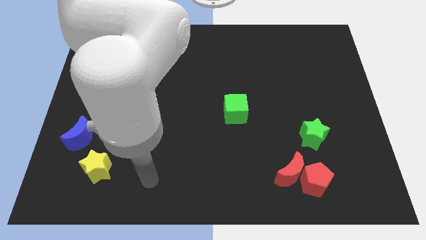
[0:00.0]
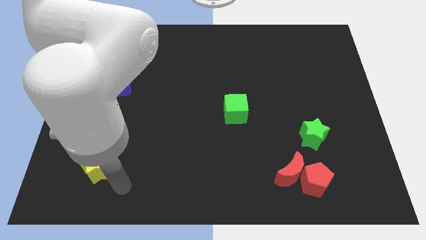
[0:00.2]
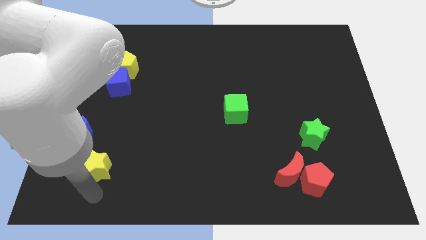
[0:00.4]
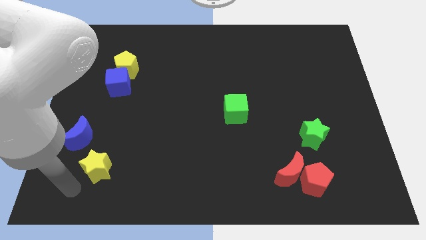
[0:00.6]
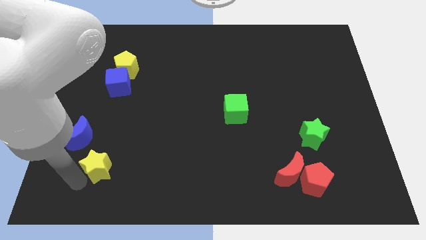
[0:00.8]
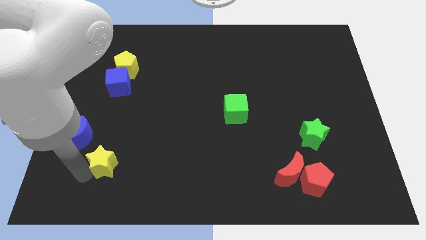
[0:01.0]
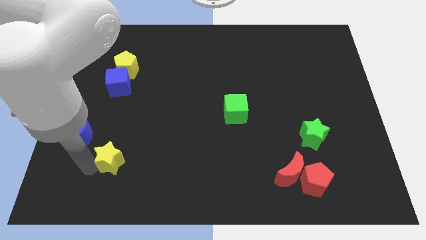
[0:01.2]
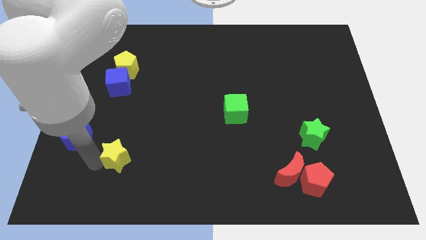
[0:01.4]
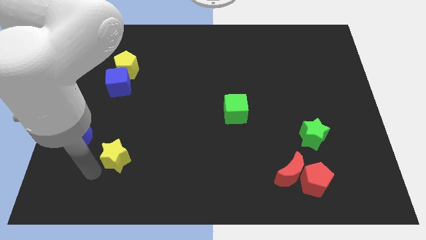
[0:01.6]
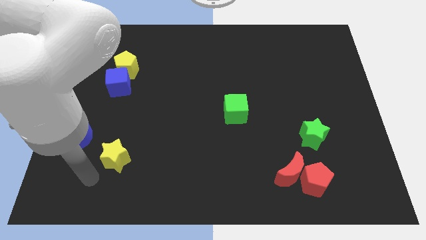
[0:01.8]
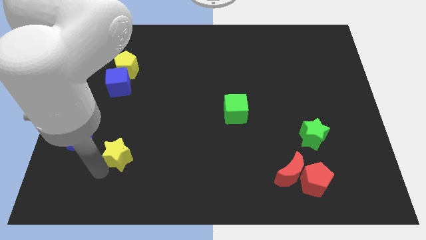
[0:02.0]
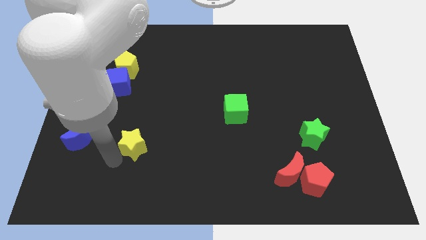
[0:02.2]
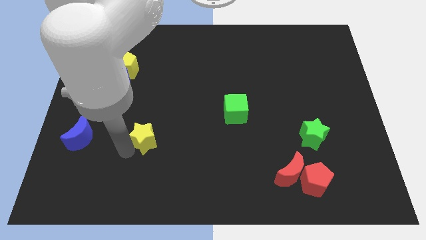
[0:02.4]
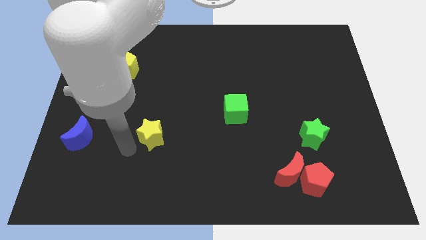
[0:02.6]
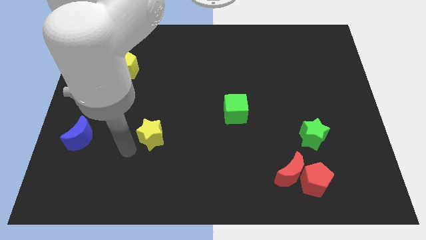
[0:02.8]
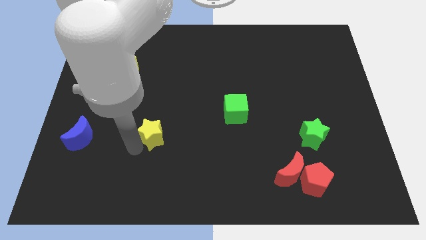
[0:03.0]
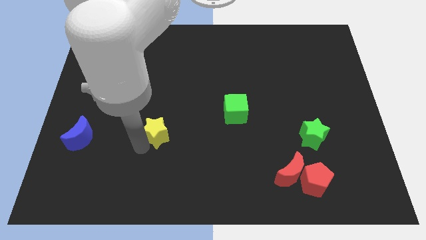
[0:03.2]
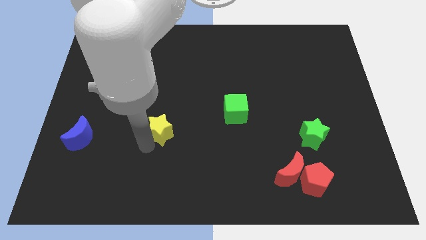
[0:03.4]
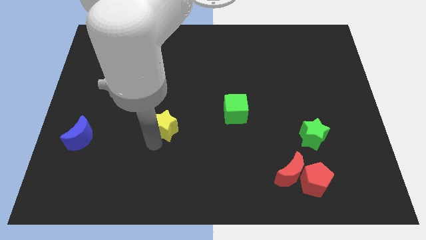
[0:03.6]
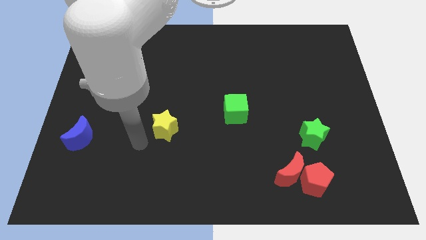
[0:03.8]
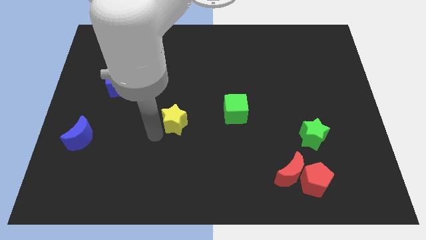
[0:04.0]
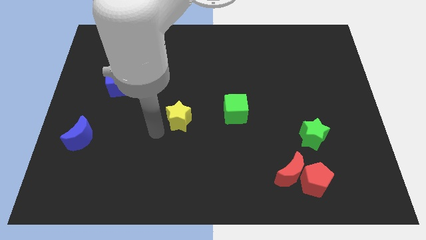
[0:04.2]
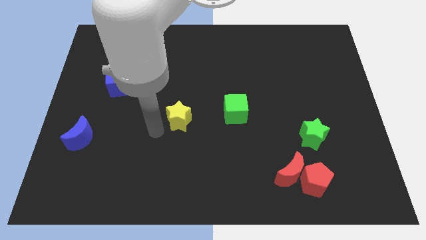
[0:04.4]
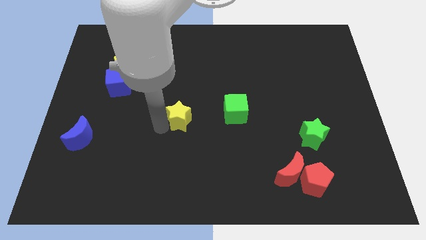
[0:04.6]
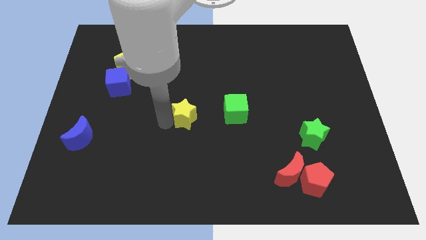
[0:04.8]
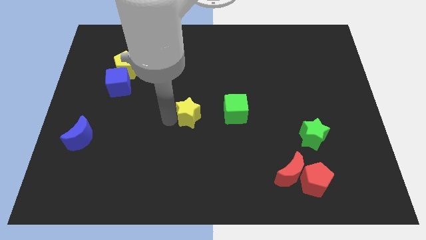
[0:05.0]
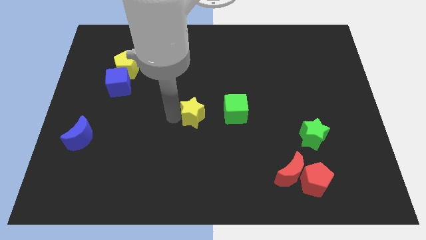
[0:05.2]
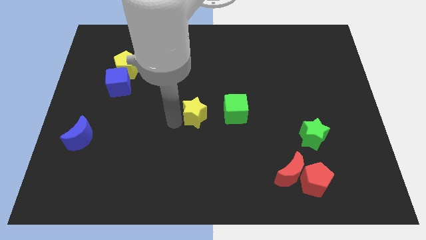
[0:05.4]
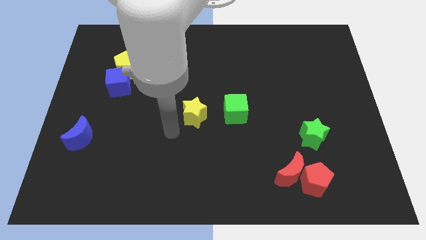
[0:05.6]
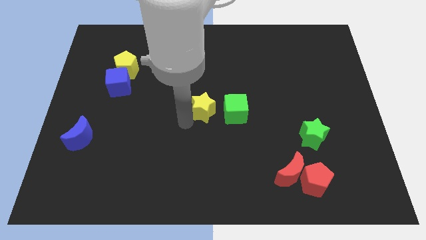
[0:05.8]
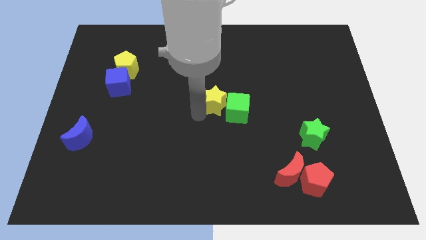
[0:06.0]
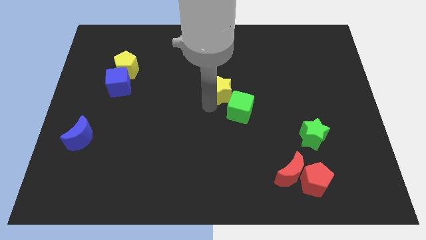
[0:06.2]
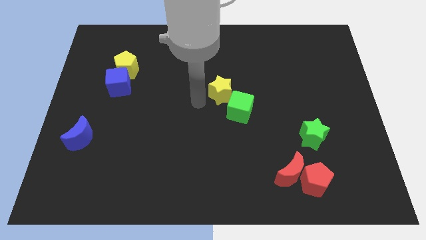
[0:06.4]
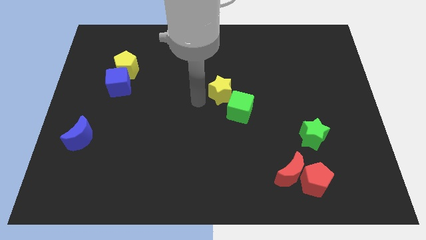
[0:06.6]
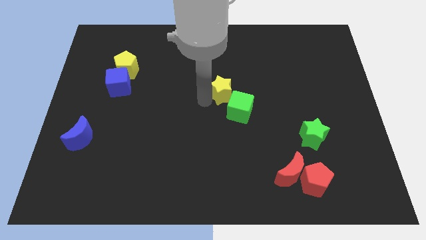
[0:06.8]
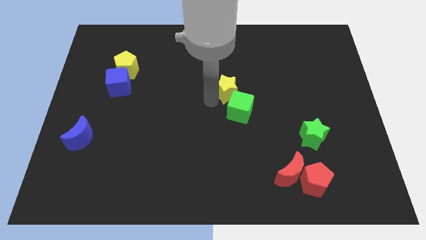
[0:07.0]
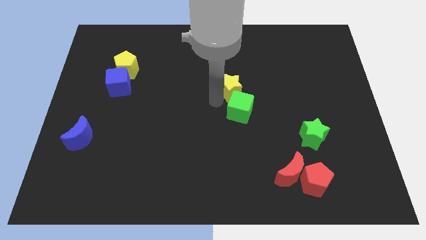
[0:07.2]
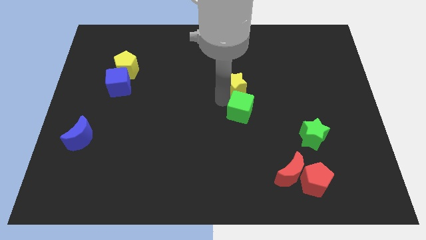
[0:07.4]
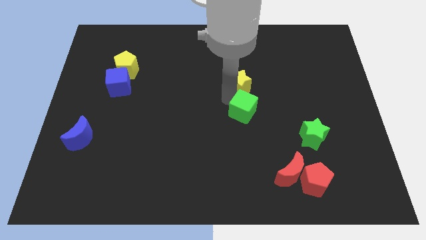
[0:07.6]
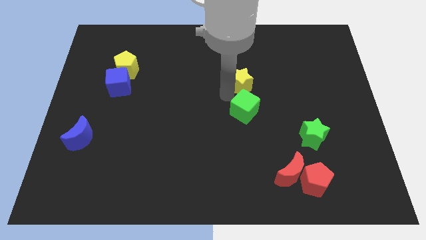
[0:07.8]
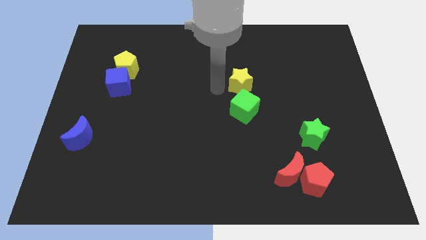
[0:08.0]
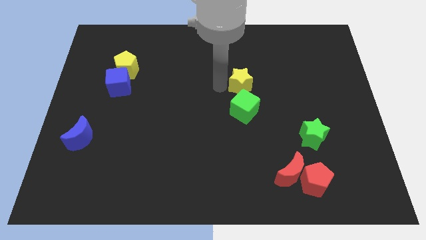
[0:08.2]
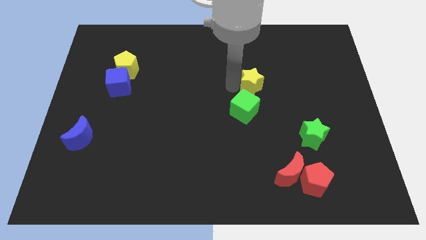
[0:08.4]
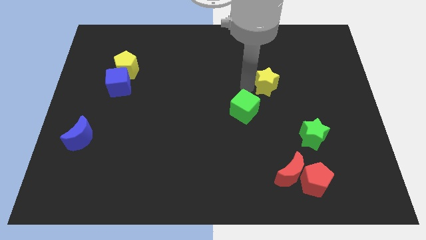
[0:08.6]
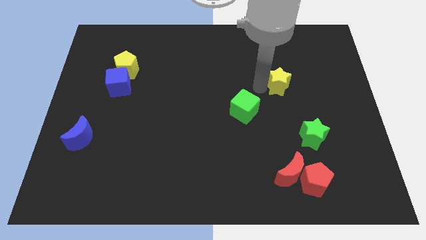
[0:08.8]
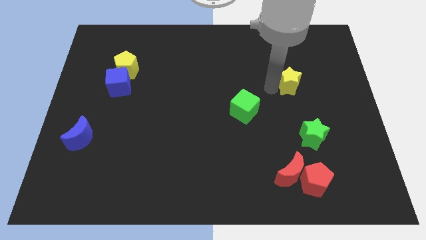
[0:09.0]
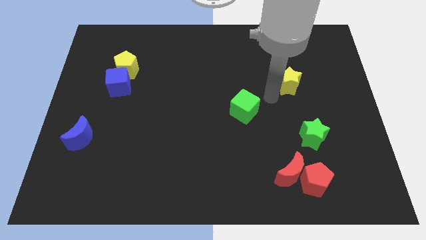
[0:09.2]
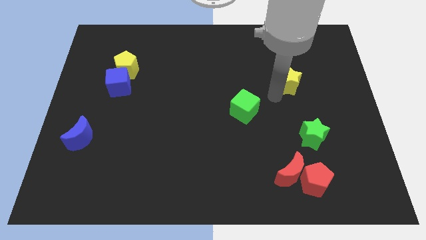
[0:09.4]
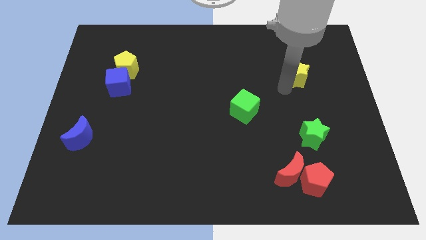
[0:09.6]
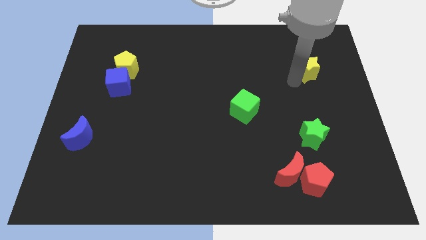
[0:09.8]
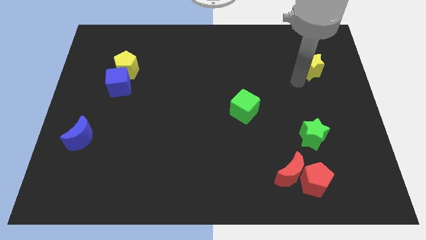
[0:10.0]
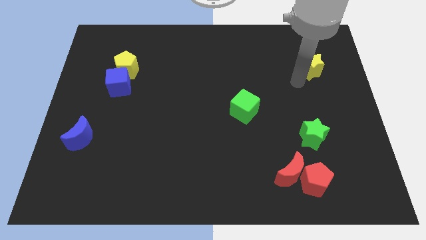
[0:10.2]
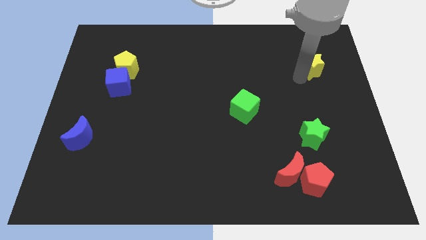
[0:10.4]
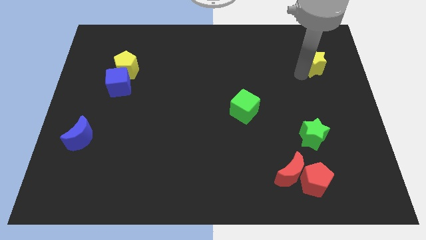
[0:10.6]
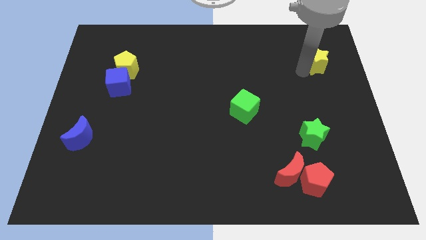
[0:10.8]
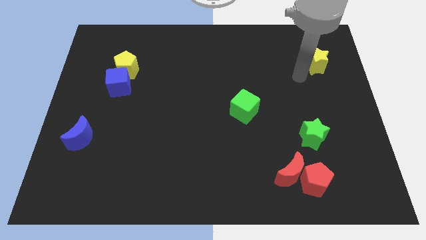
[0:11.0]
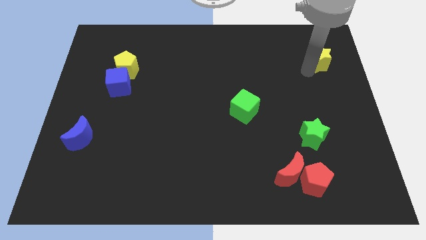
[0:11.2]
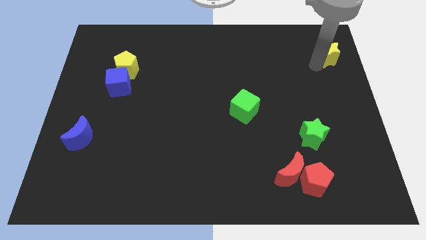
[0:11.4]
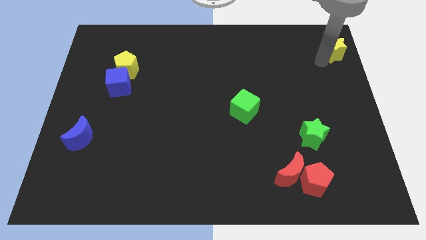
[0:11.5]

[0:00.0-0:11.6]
slide the yellow star to the top right corner

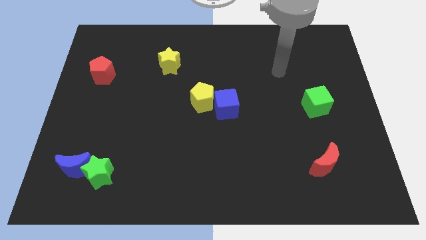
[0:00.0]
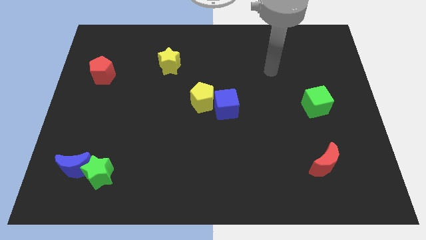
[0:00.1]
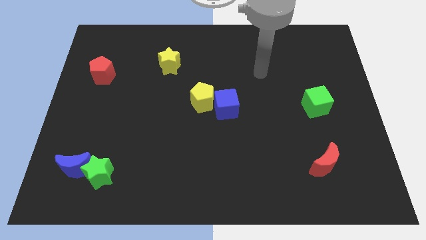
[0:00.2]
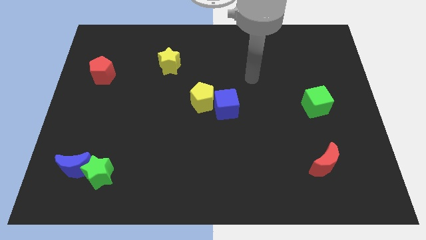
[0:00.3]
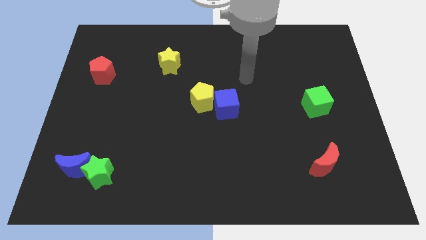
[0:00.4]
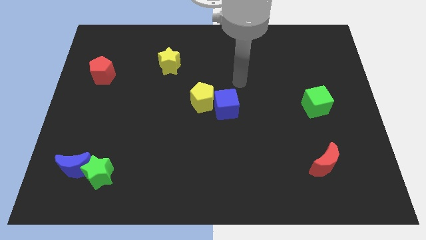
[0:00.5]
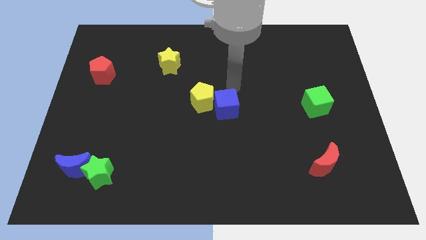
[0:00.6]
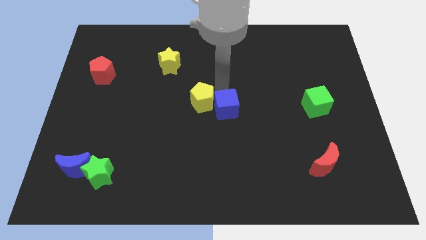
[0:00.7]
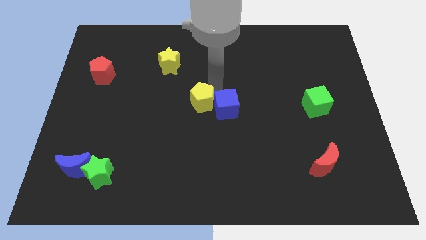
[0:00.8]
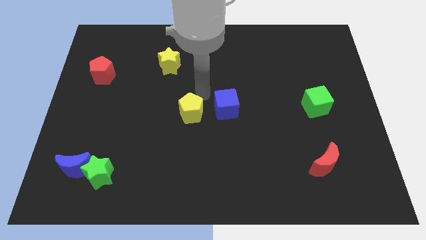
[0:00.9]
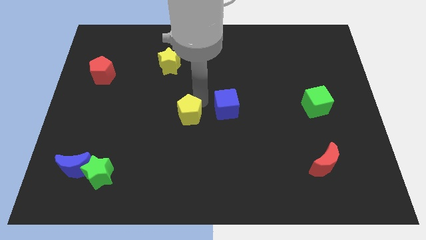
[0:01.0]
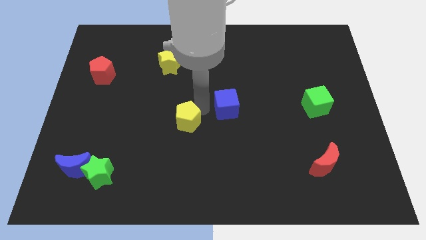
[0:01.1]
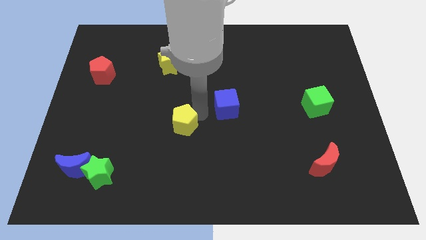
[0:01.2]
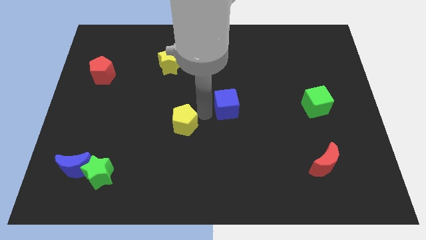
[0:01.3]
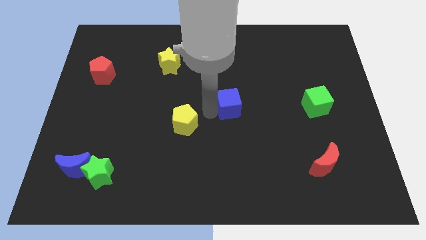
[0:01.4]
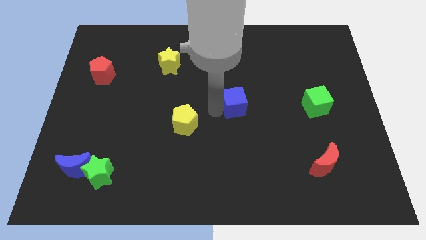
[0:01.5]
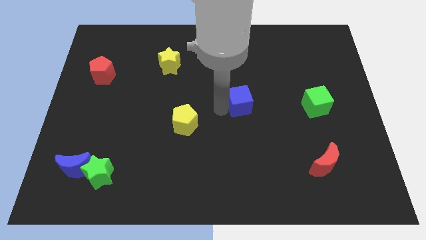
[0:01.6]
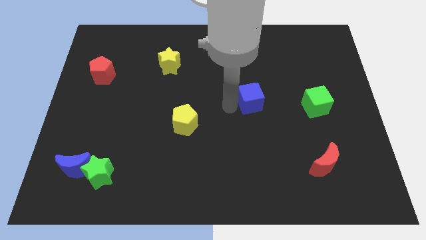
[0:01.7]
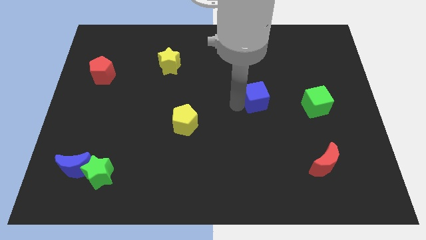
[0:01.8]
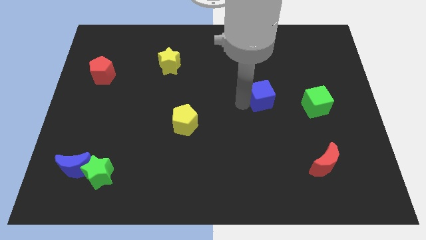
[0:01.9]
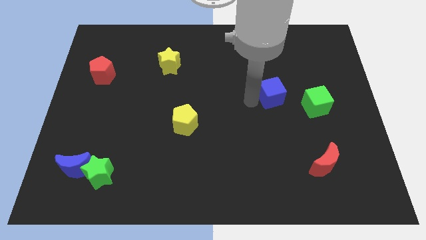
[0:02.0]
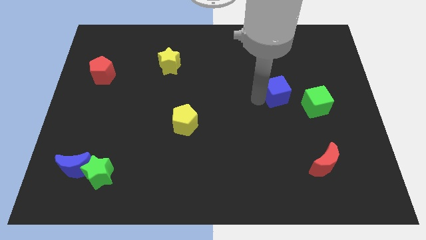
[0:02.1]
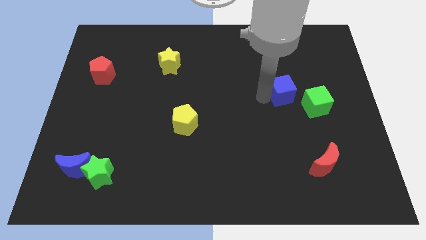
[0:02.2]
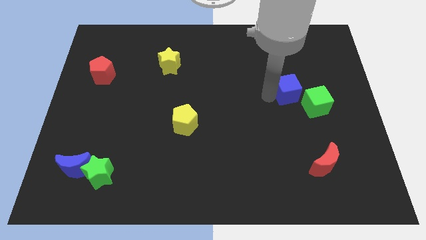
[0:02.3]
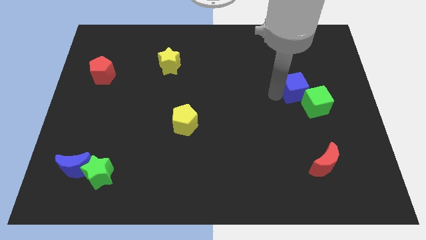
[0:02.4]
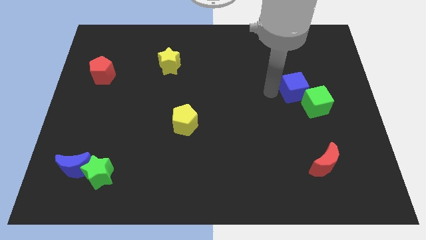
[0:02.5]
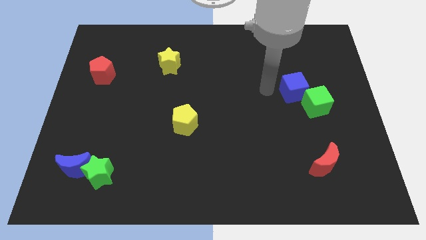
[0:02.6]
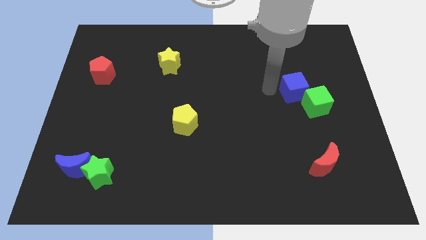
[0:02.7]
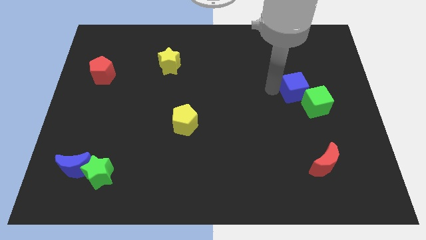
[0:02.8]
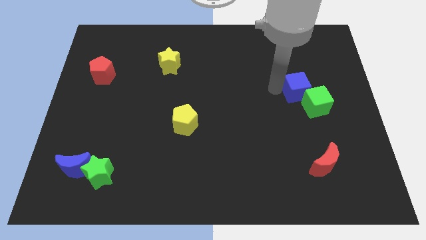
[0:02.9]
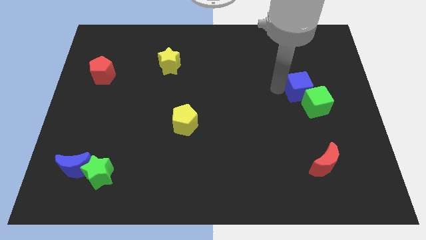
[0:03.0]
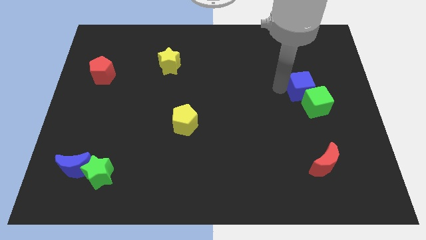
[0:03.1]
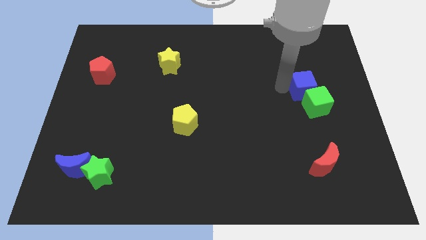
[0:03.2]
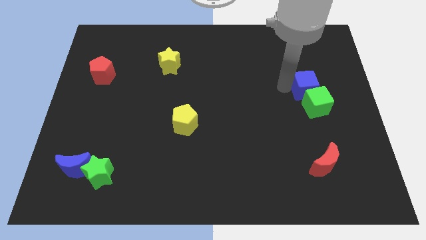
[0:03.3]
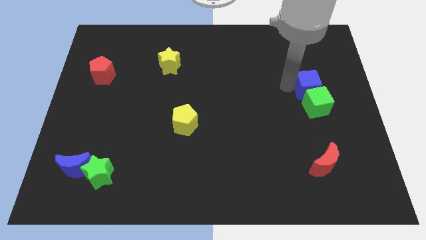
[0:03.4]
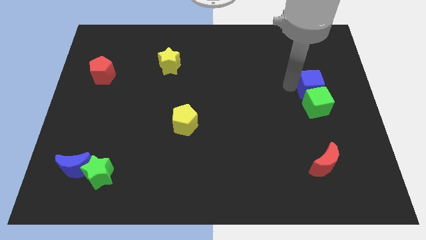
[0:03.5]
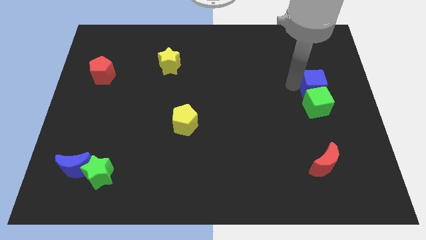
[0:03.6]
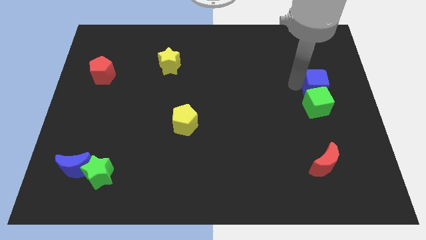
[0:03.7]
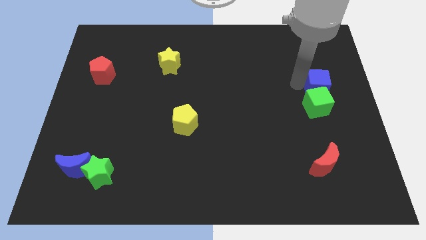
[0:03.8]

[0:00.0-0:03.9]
slide the blue cube to the center right
